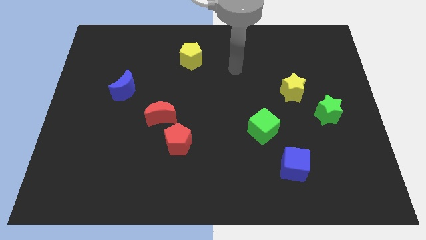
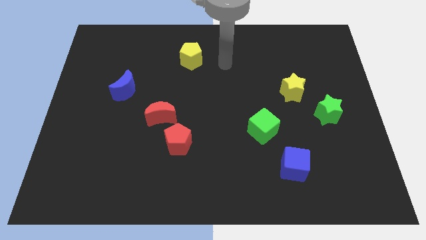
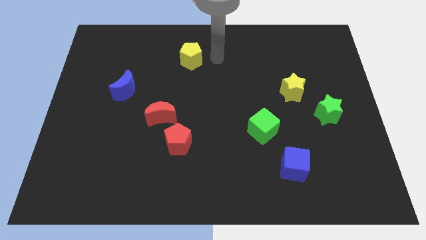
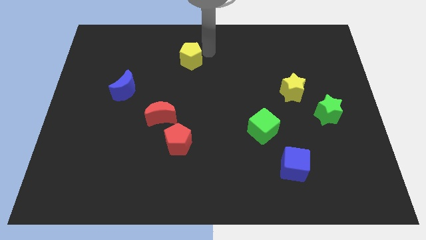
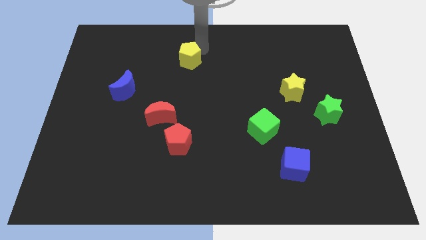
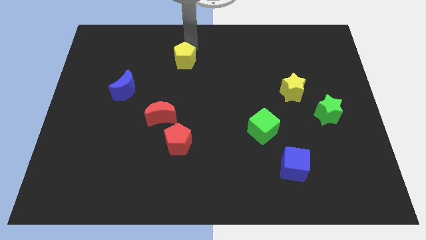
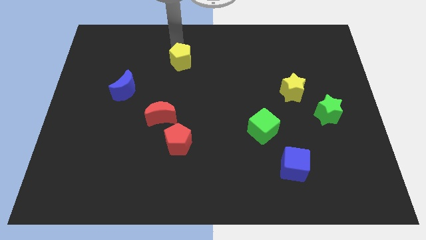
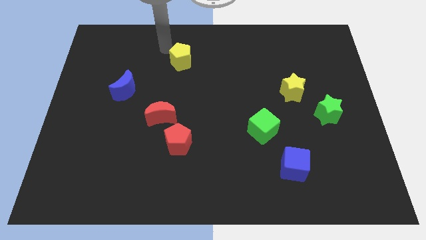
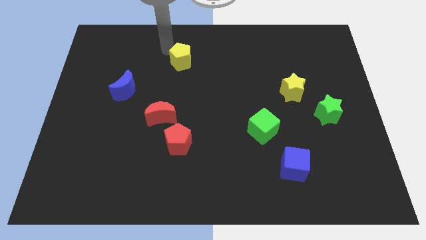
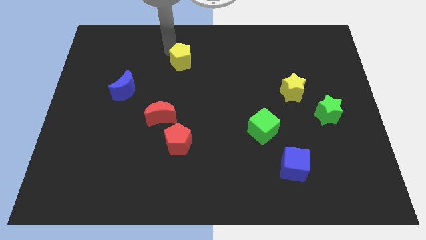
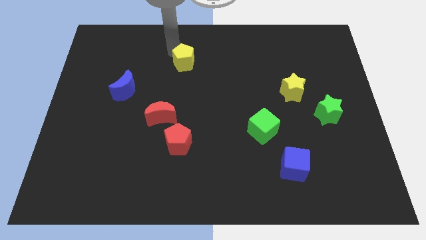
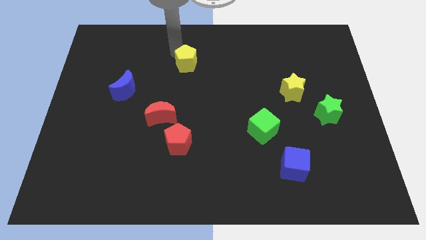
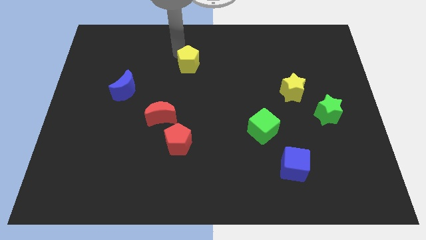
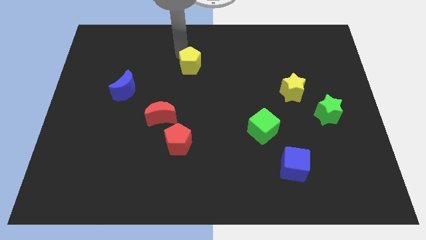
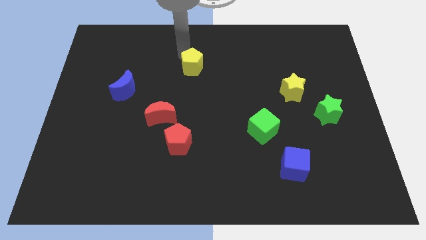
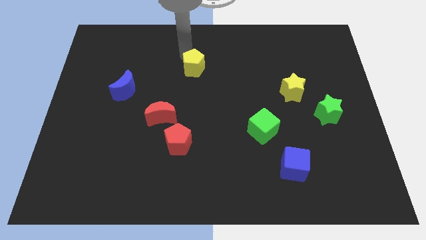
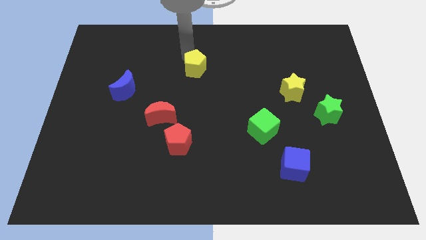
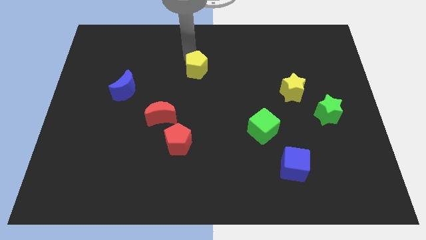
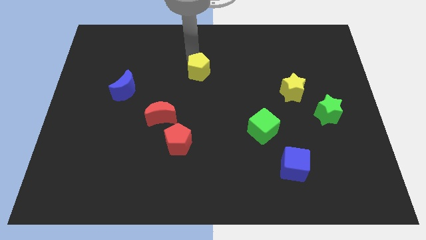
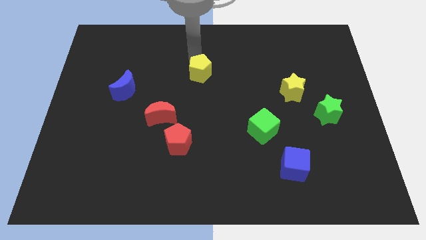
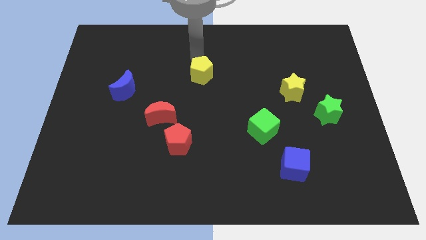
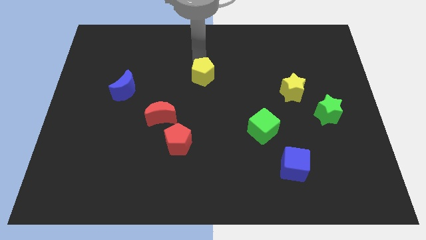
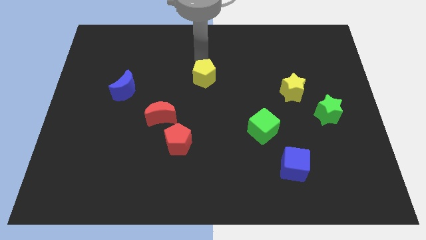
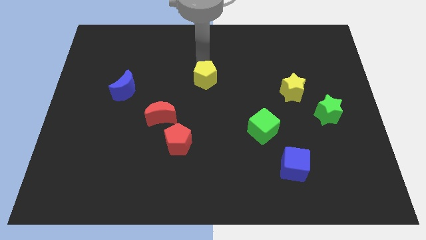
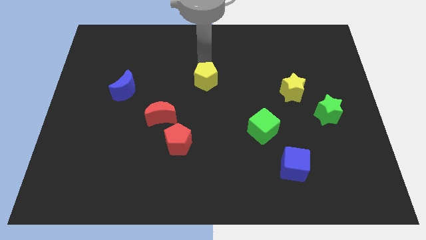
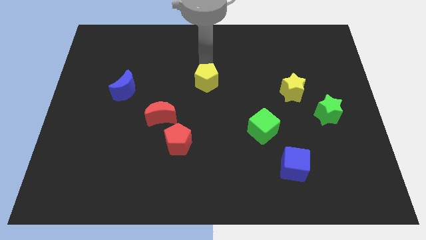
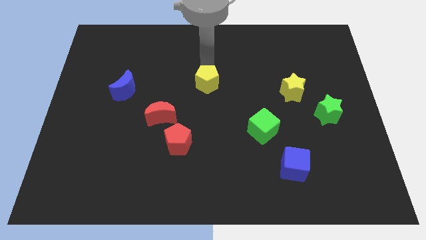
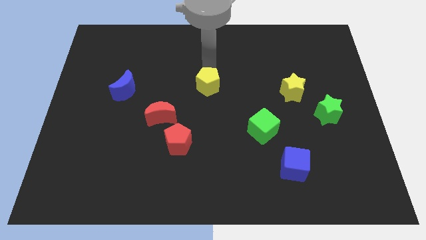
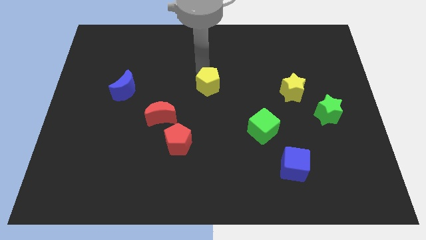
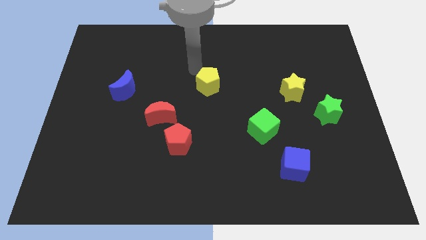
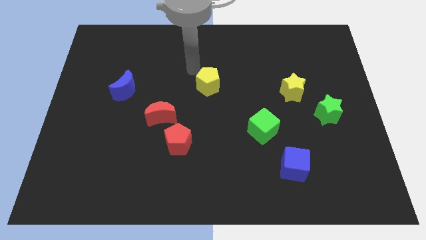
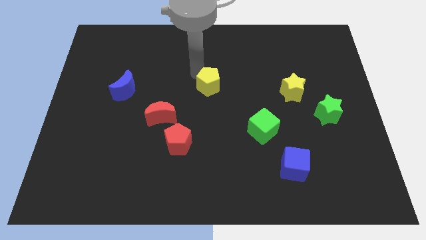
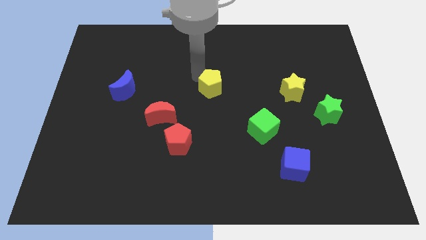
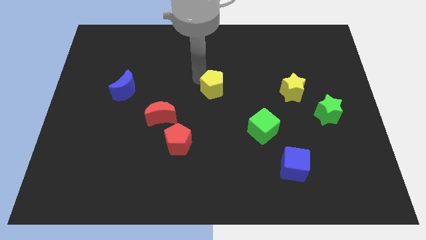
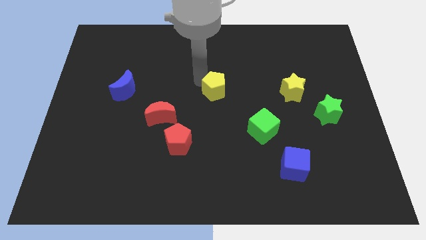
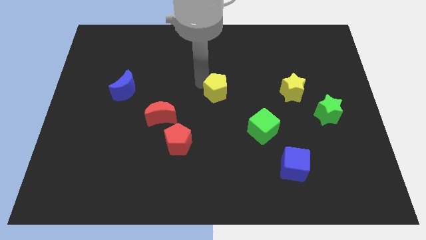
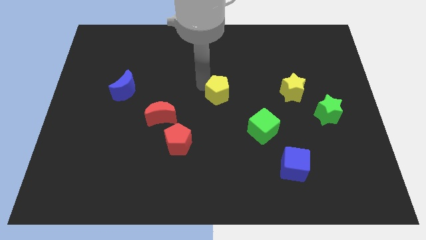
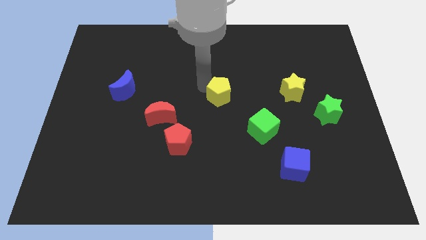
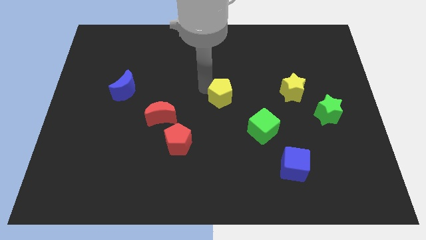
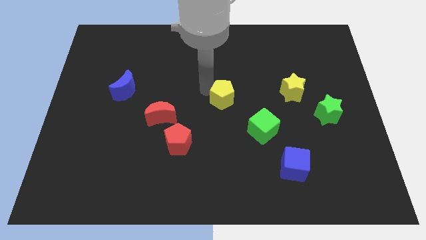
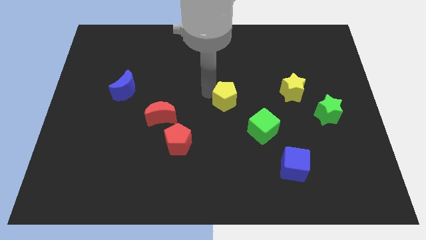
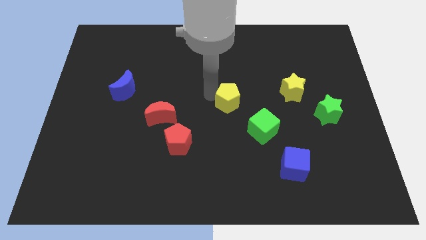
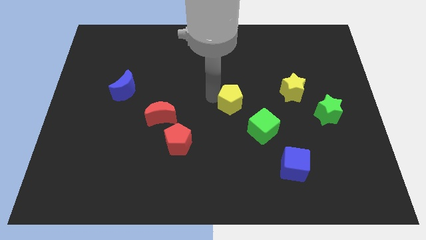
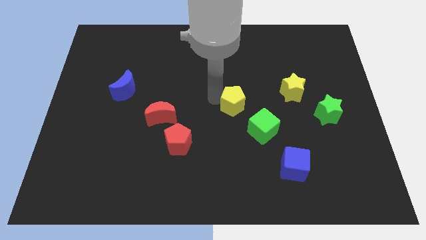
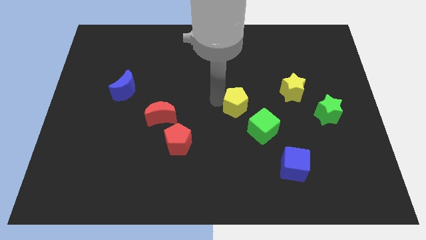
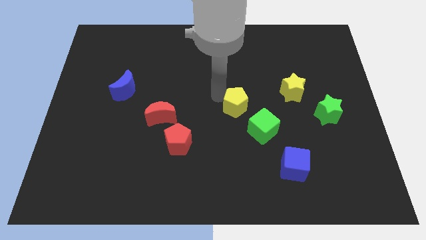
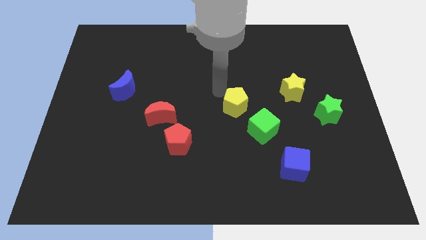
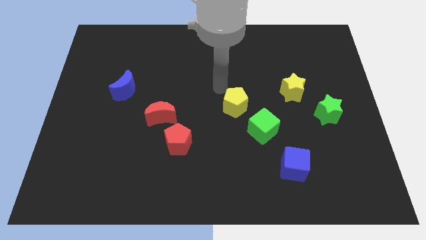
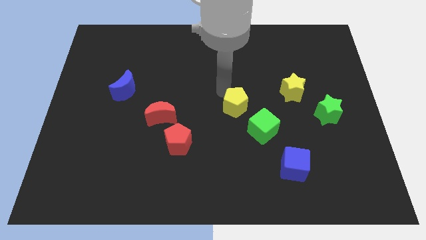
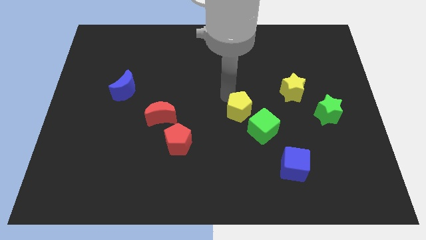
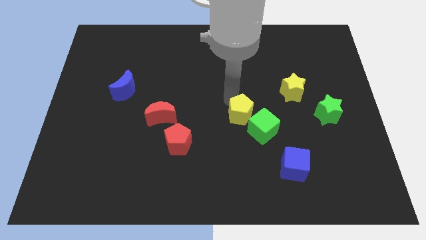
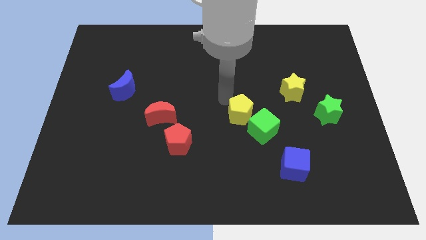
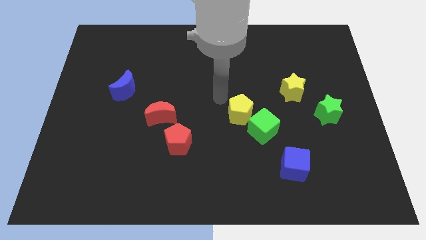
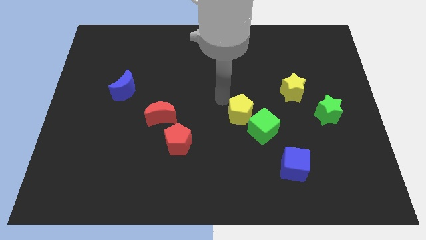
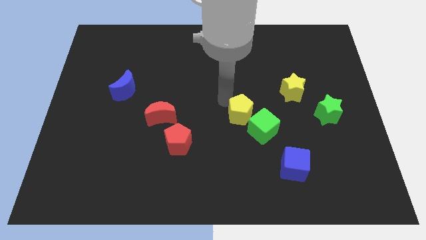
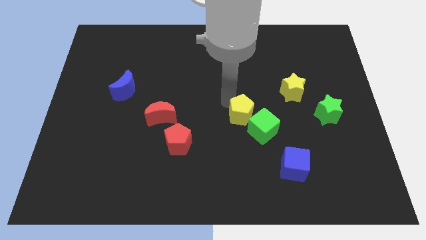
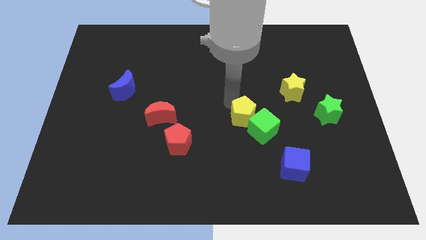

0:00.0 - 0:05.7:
push the yellow pentagon towards the green cube
